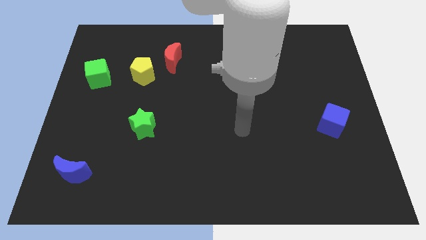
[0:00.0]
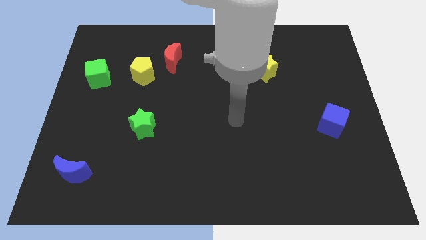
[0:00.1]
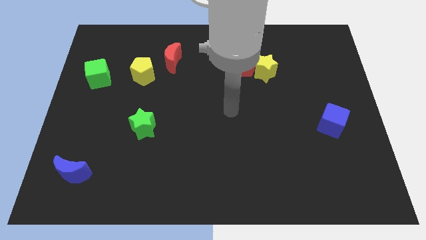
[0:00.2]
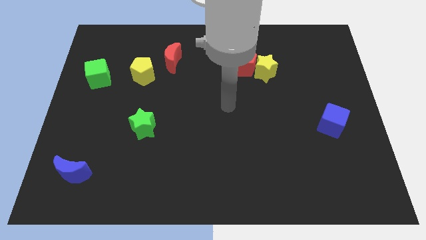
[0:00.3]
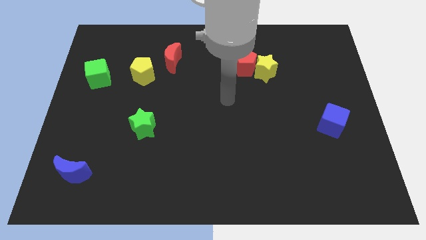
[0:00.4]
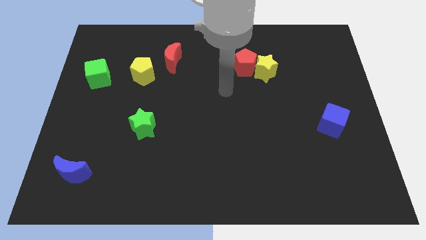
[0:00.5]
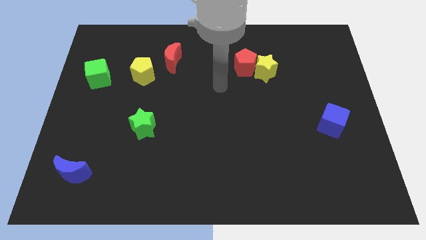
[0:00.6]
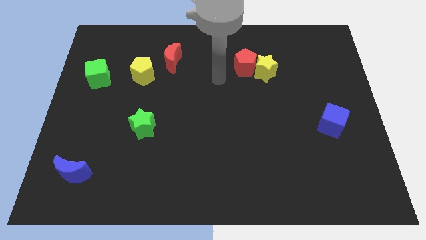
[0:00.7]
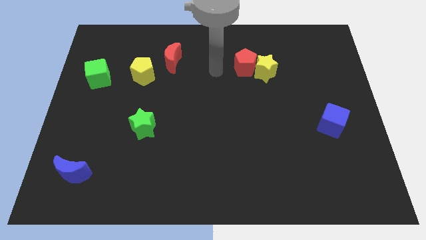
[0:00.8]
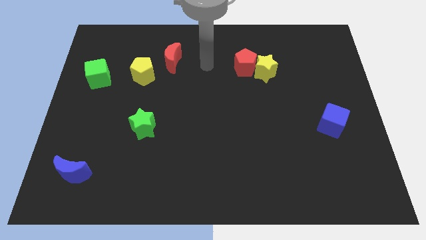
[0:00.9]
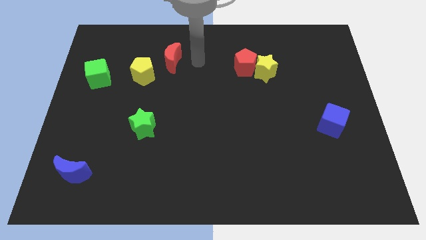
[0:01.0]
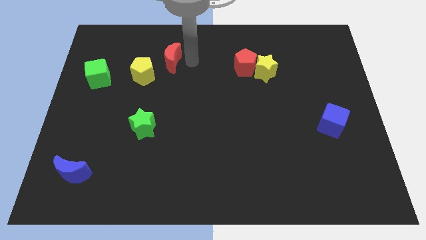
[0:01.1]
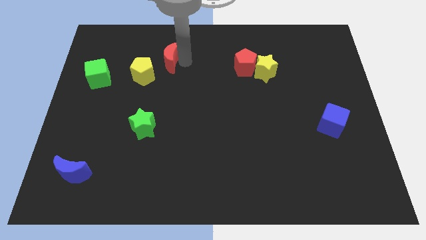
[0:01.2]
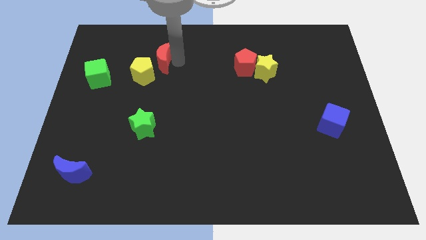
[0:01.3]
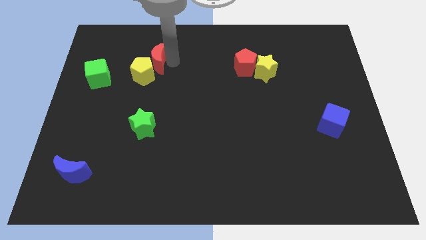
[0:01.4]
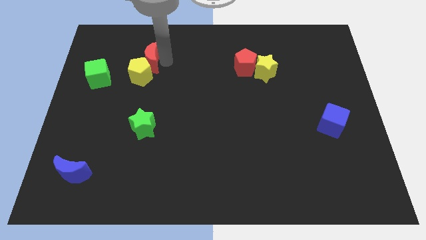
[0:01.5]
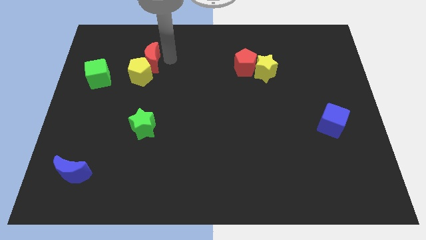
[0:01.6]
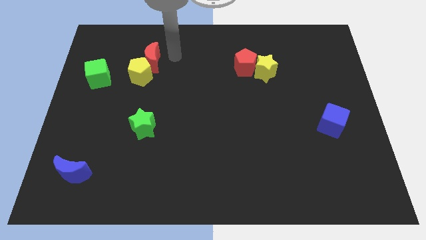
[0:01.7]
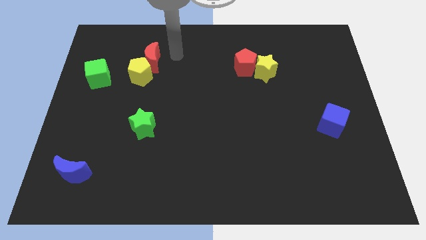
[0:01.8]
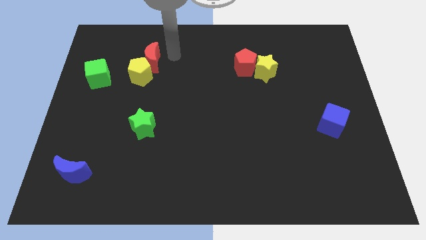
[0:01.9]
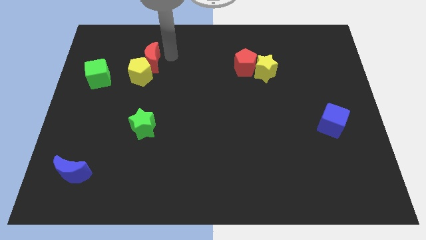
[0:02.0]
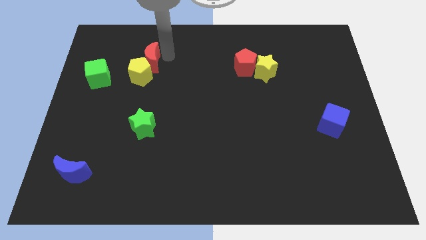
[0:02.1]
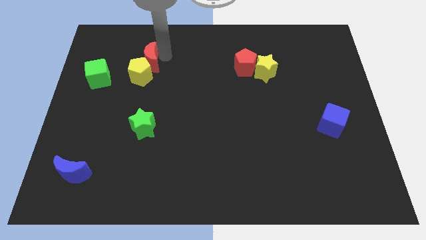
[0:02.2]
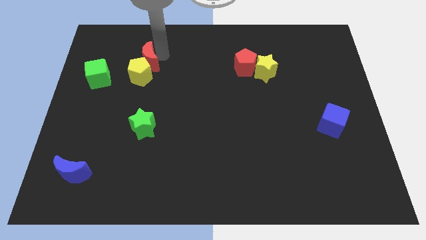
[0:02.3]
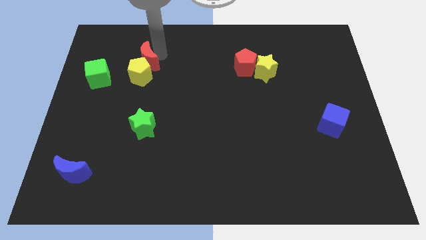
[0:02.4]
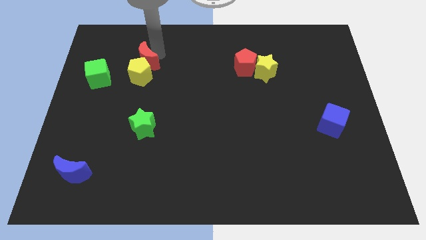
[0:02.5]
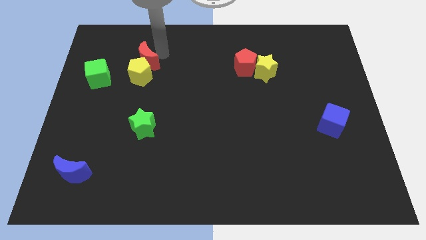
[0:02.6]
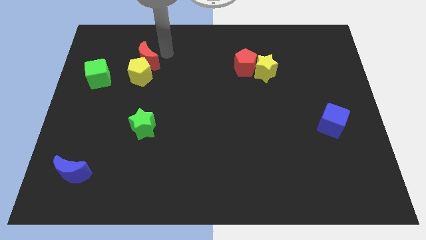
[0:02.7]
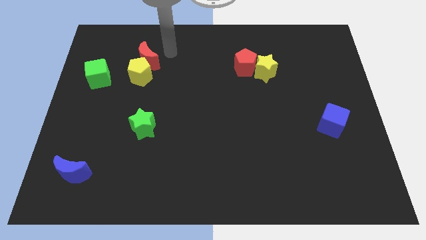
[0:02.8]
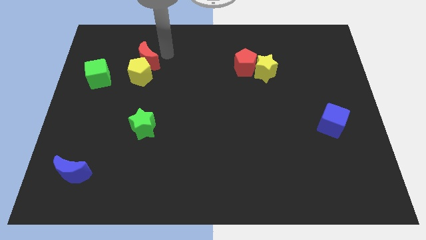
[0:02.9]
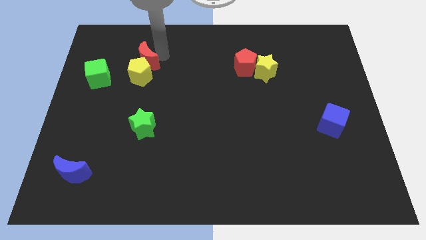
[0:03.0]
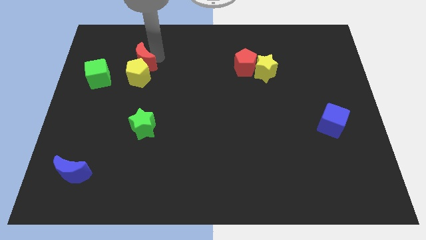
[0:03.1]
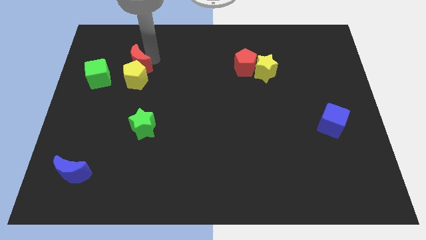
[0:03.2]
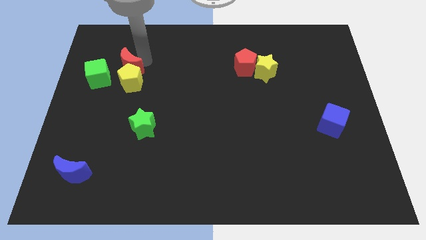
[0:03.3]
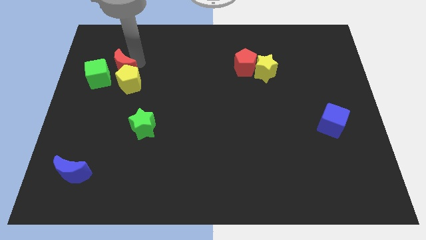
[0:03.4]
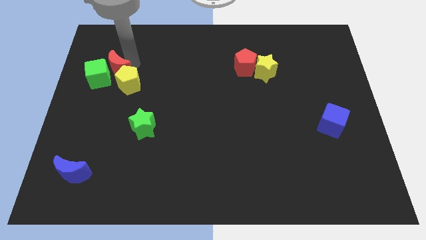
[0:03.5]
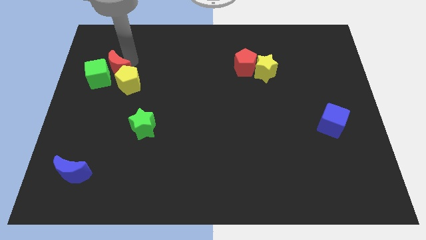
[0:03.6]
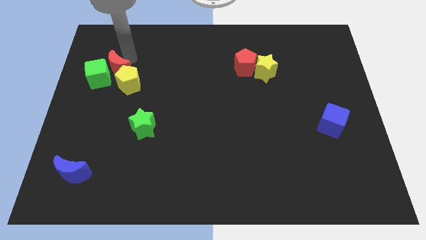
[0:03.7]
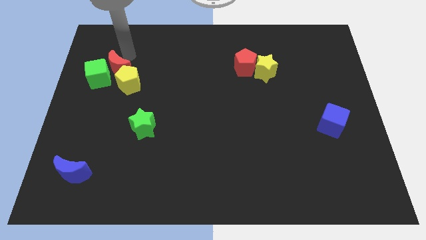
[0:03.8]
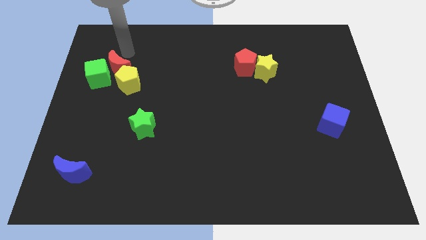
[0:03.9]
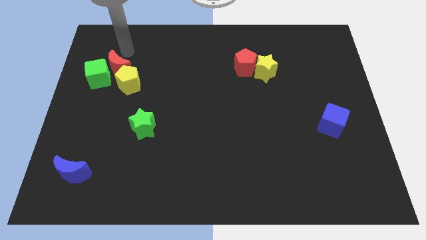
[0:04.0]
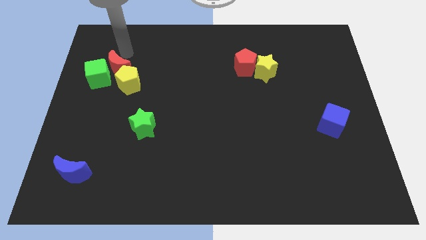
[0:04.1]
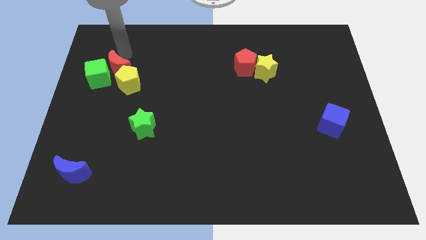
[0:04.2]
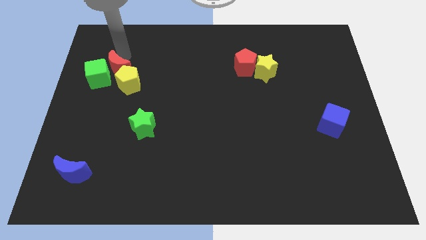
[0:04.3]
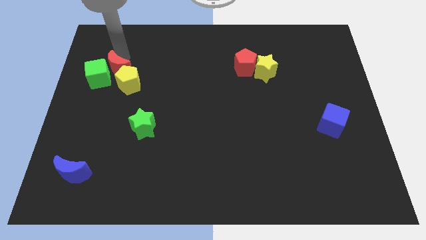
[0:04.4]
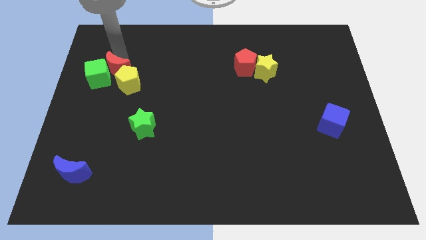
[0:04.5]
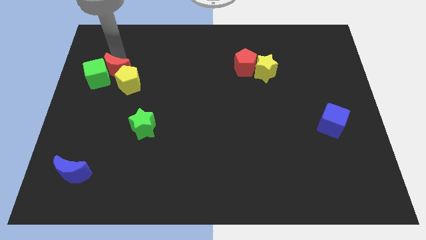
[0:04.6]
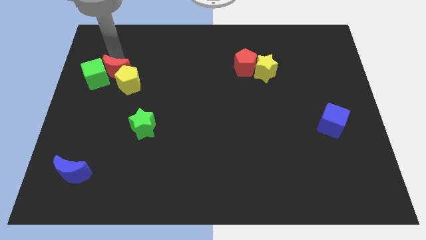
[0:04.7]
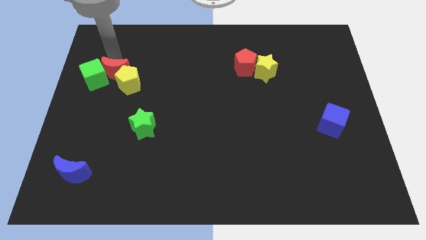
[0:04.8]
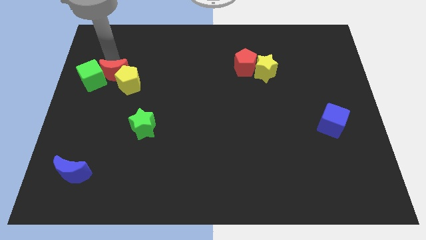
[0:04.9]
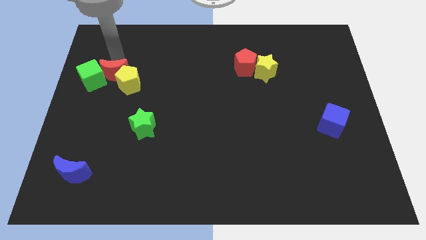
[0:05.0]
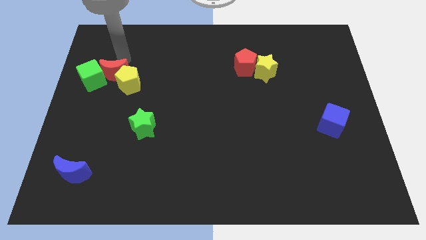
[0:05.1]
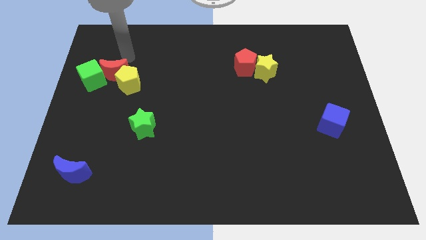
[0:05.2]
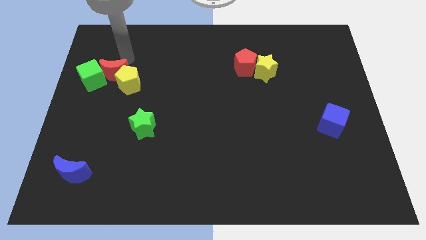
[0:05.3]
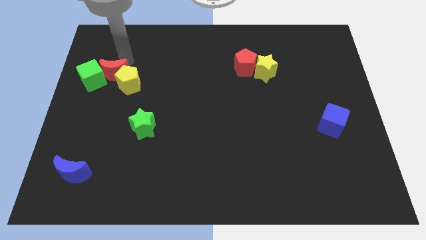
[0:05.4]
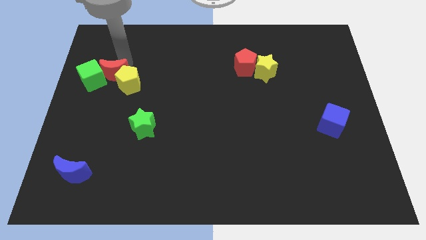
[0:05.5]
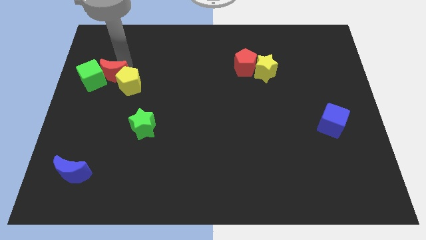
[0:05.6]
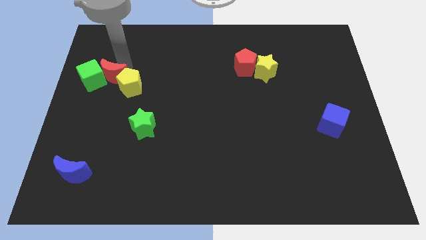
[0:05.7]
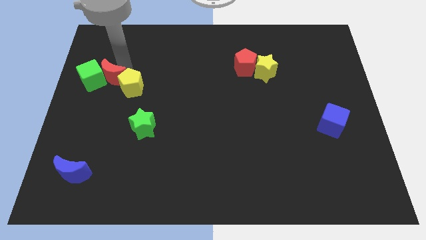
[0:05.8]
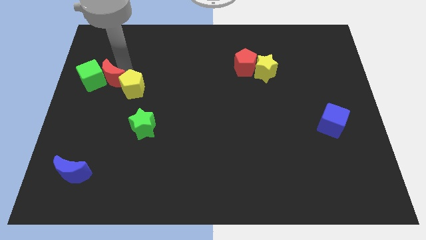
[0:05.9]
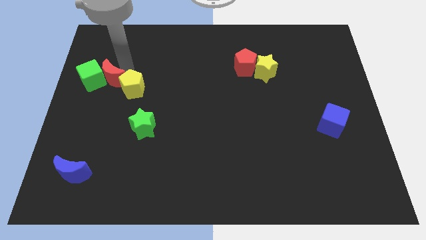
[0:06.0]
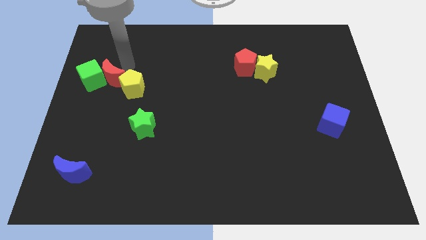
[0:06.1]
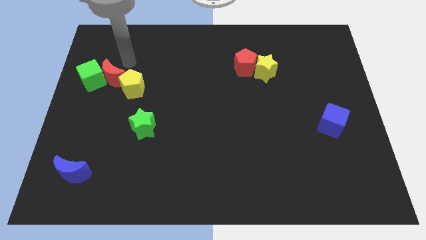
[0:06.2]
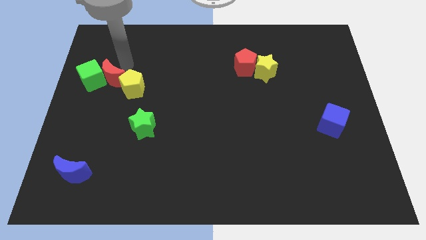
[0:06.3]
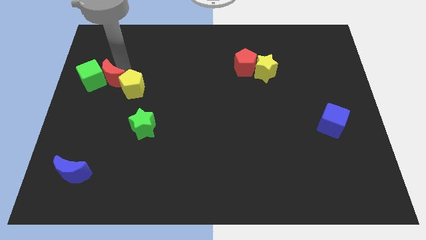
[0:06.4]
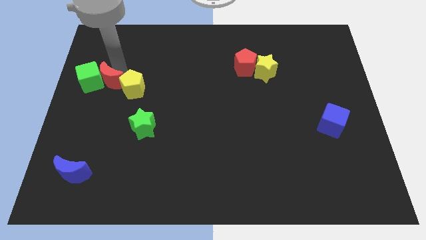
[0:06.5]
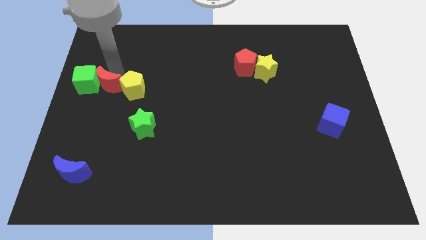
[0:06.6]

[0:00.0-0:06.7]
push the red moon to the center left
